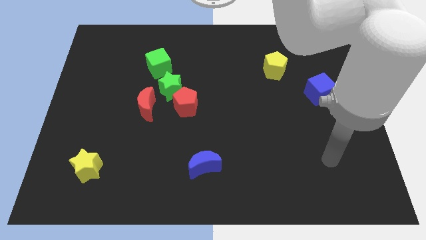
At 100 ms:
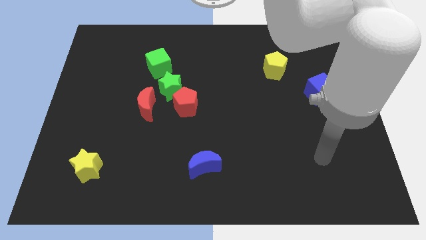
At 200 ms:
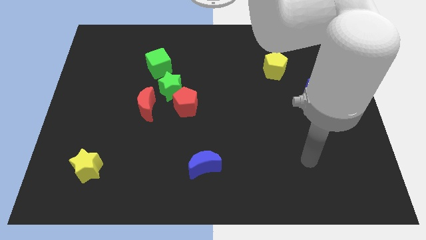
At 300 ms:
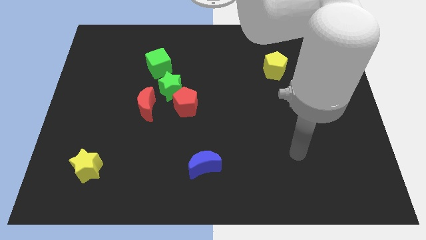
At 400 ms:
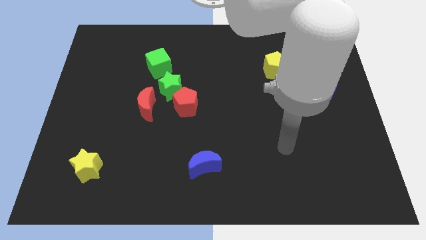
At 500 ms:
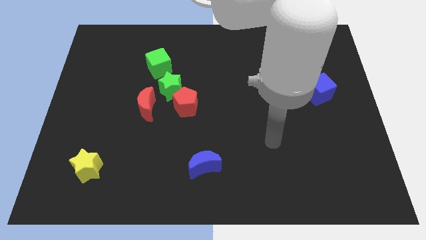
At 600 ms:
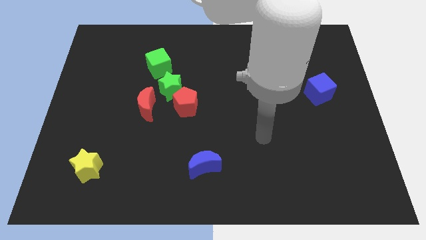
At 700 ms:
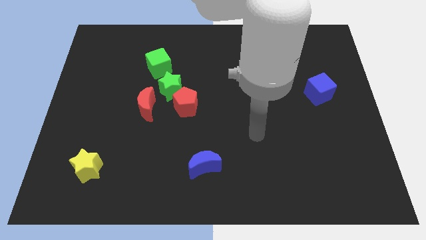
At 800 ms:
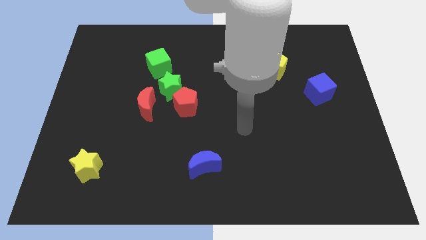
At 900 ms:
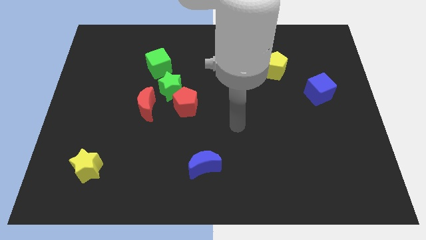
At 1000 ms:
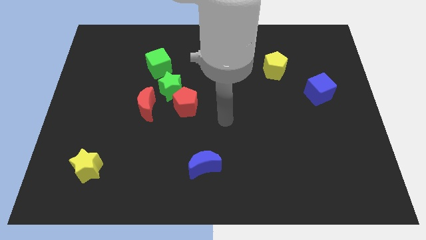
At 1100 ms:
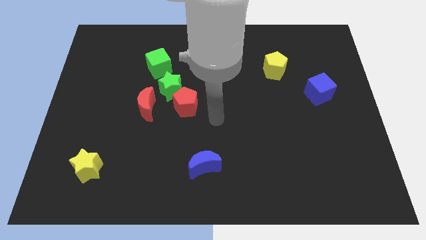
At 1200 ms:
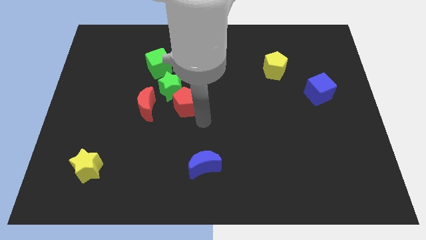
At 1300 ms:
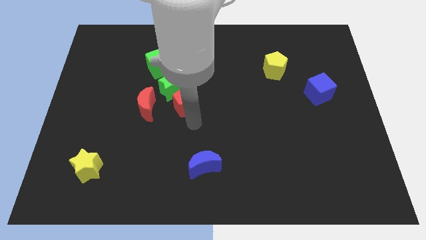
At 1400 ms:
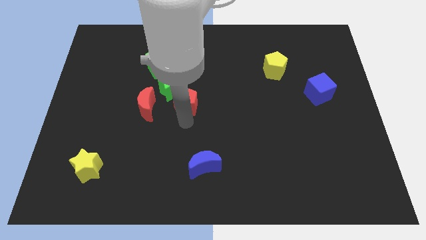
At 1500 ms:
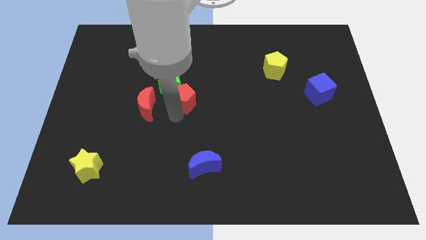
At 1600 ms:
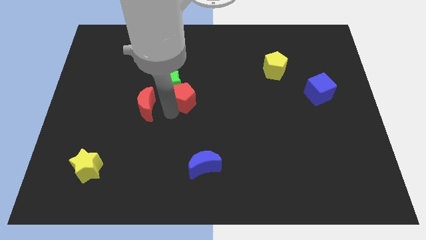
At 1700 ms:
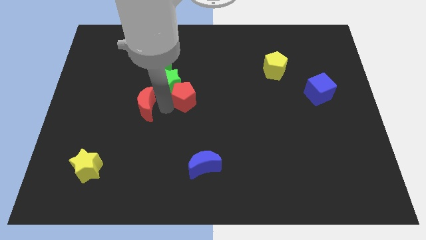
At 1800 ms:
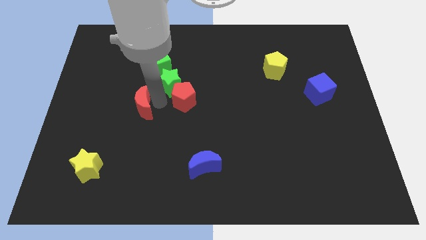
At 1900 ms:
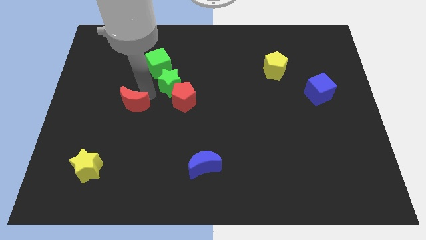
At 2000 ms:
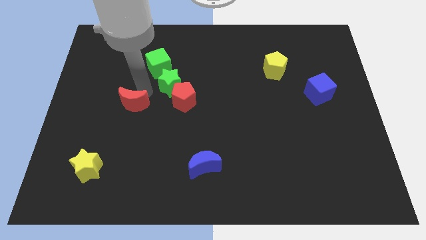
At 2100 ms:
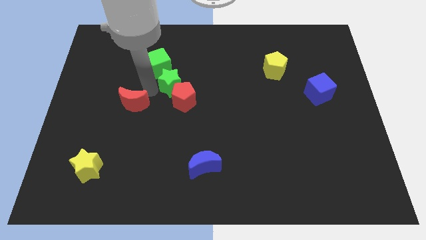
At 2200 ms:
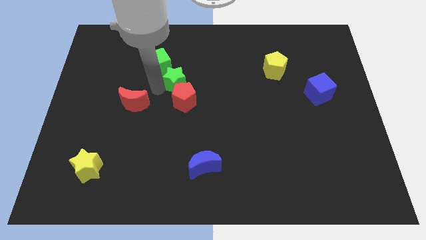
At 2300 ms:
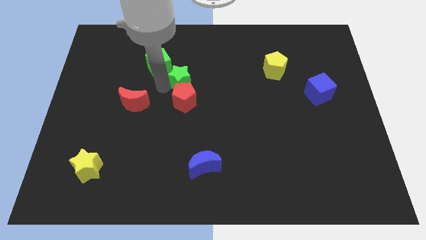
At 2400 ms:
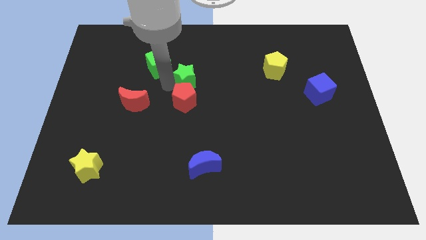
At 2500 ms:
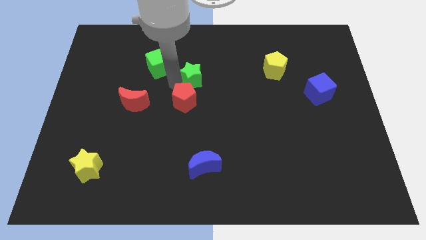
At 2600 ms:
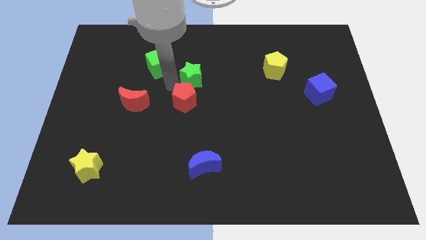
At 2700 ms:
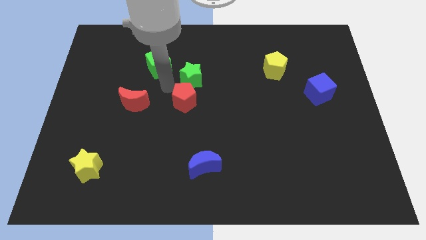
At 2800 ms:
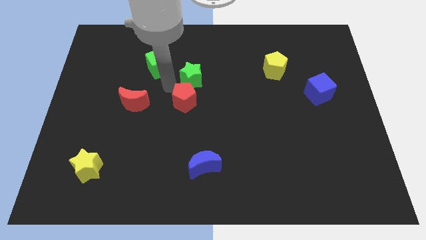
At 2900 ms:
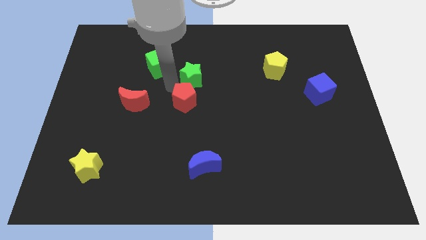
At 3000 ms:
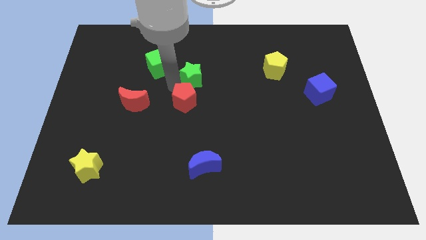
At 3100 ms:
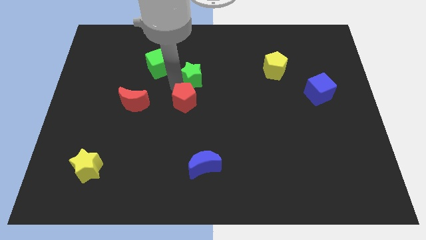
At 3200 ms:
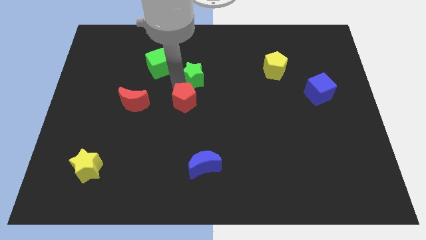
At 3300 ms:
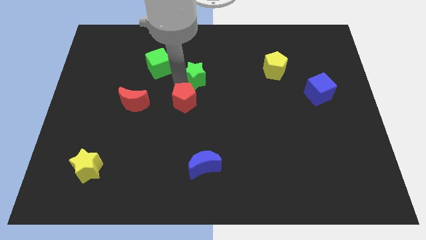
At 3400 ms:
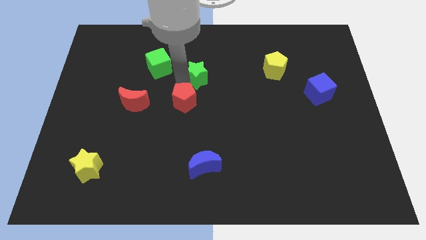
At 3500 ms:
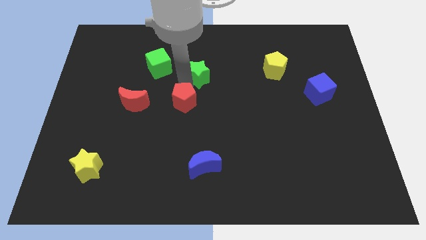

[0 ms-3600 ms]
separate the green star from the red pentagon, red moon, and green cube

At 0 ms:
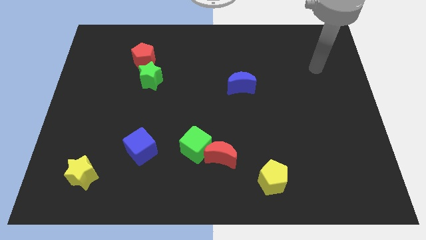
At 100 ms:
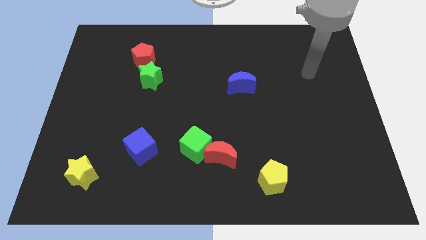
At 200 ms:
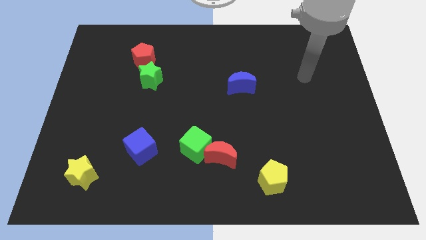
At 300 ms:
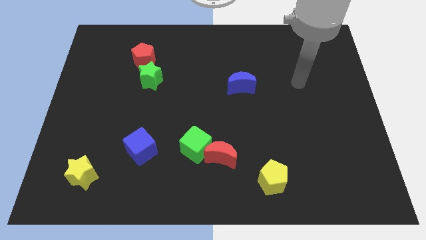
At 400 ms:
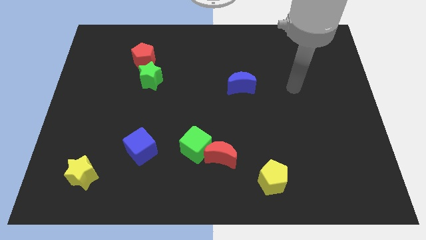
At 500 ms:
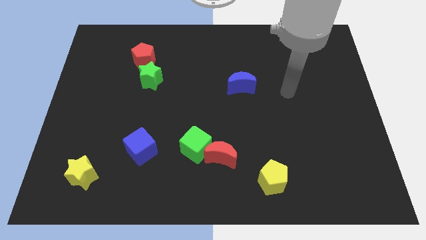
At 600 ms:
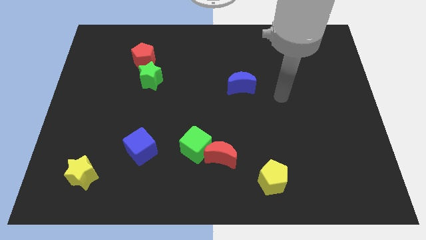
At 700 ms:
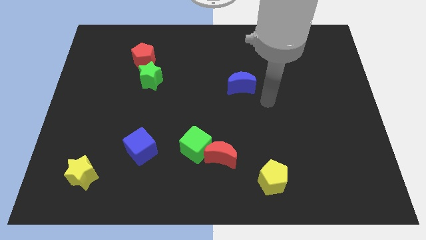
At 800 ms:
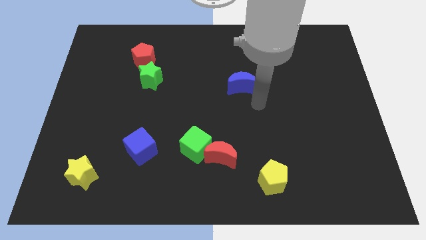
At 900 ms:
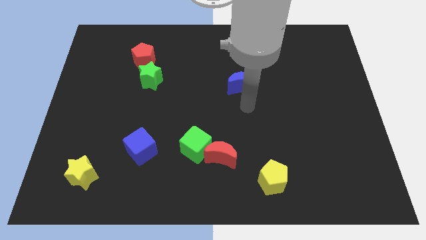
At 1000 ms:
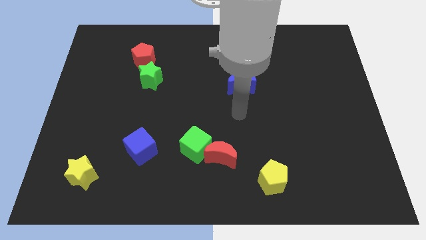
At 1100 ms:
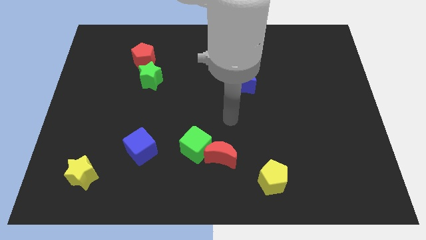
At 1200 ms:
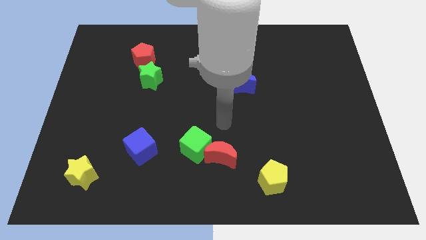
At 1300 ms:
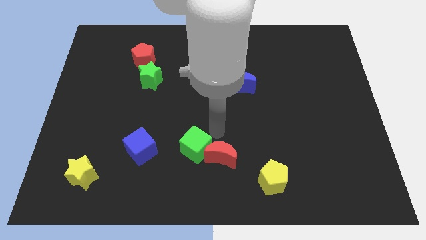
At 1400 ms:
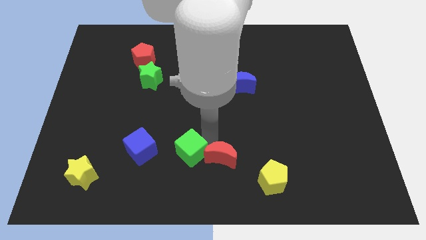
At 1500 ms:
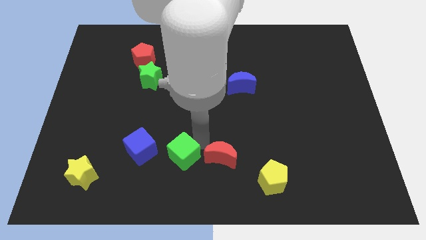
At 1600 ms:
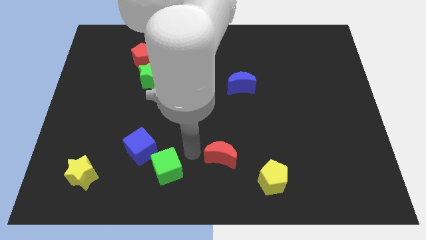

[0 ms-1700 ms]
pull the red moon apart from the green cube

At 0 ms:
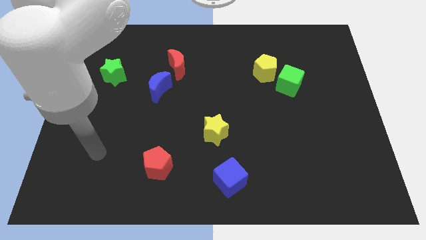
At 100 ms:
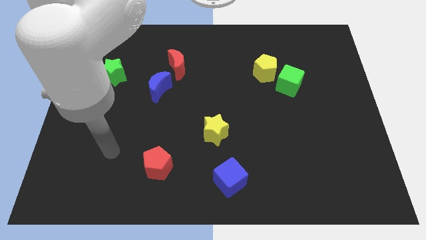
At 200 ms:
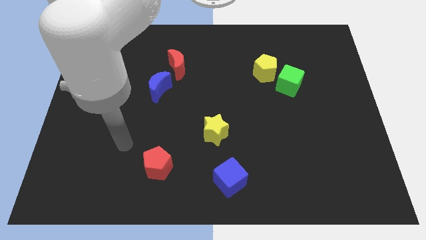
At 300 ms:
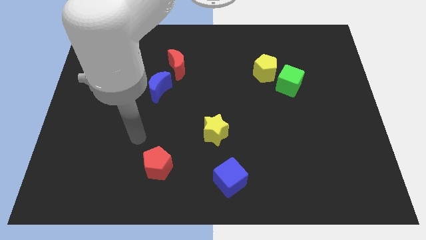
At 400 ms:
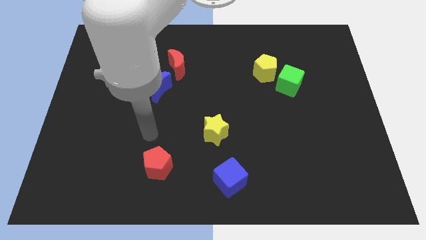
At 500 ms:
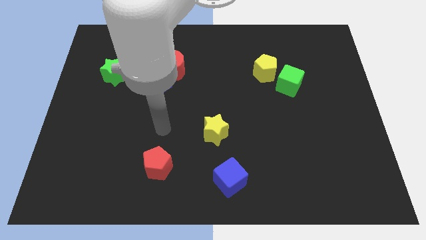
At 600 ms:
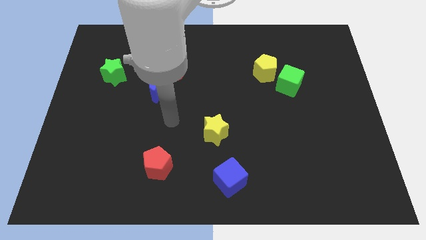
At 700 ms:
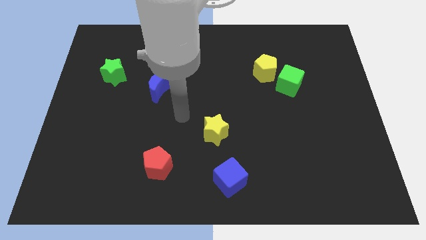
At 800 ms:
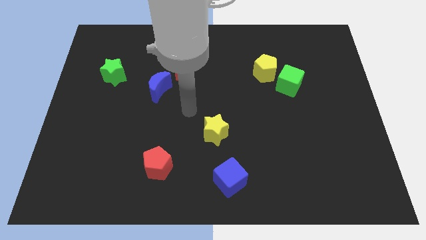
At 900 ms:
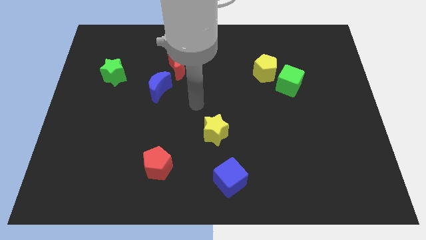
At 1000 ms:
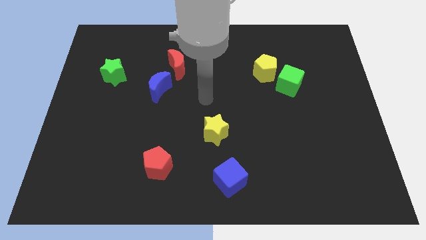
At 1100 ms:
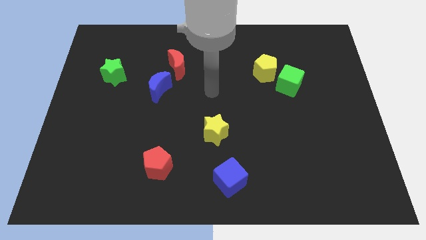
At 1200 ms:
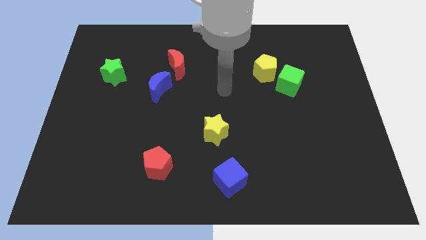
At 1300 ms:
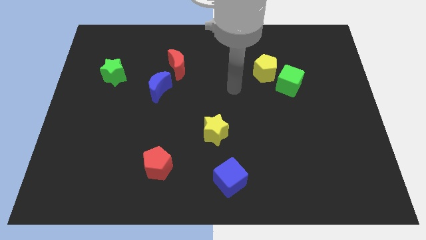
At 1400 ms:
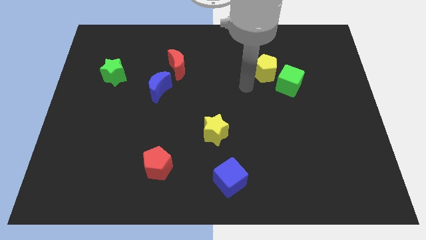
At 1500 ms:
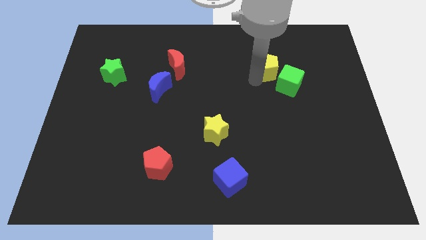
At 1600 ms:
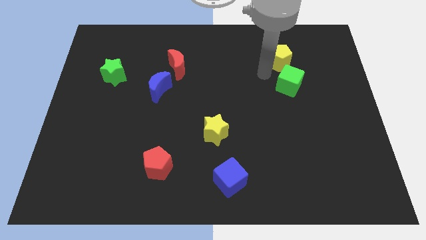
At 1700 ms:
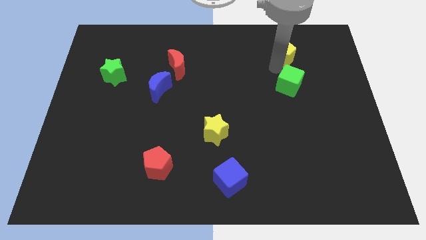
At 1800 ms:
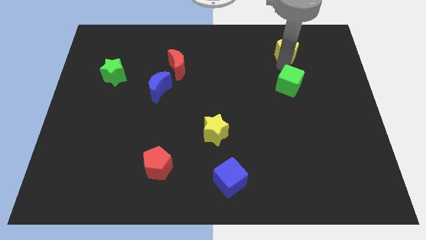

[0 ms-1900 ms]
pull the green cube apart from the yellow pentagon

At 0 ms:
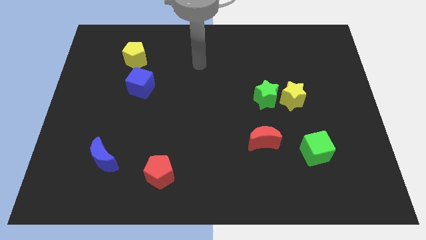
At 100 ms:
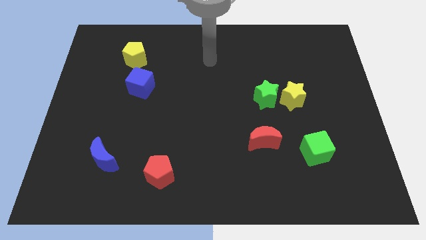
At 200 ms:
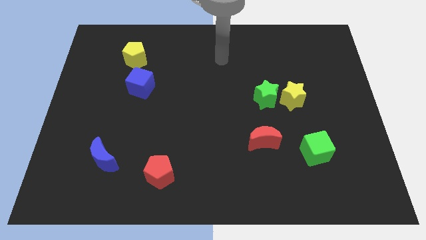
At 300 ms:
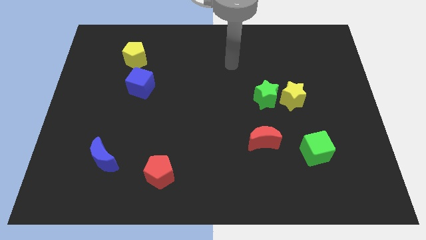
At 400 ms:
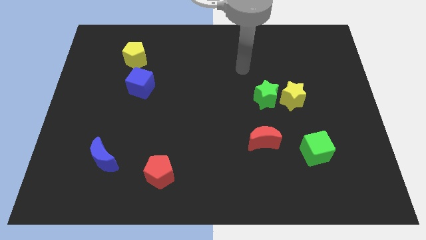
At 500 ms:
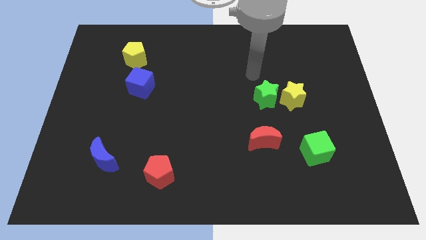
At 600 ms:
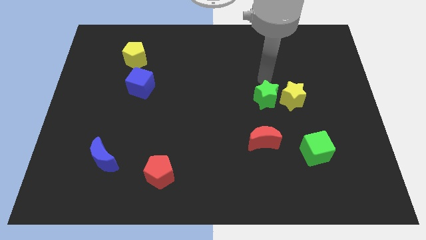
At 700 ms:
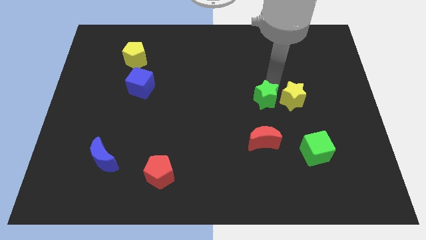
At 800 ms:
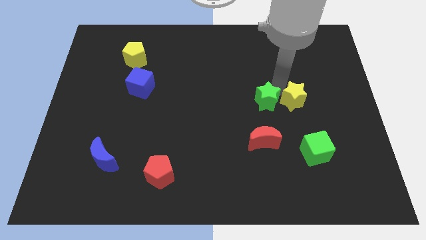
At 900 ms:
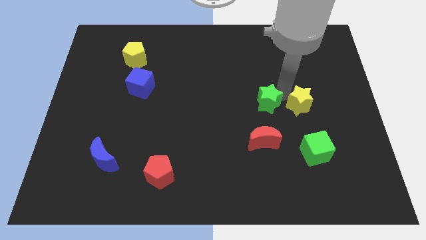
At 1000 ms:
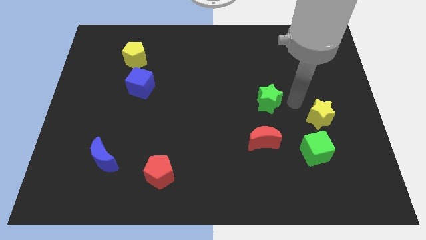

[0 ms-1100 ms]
separate the green star from the yellow star

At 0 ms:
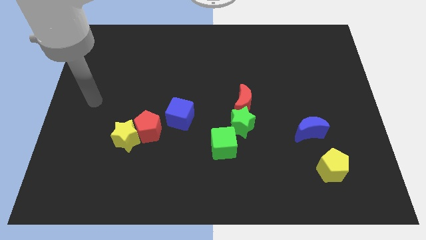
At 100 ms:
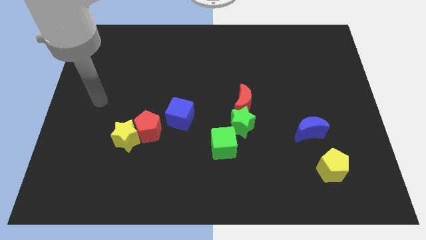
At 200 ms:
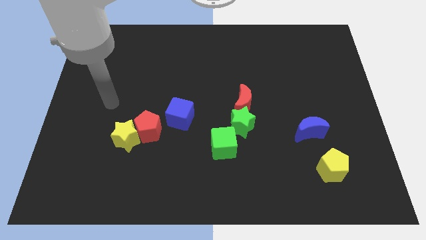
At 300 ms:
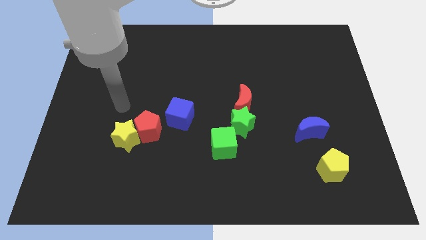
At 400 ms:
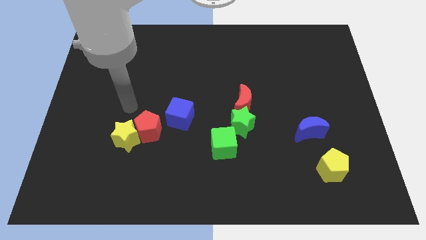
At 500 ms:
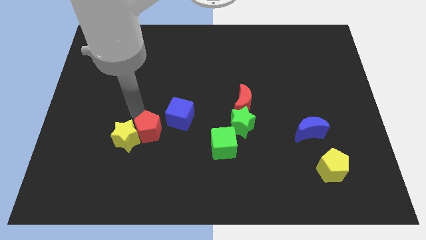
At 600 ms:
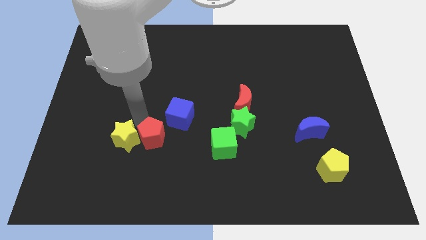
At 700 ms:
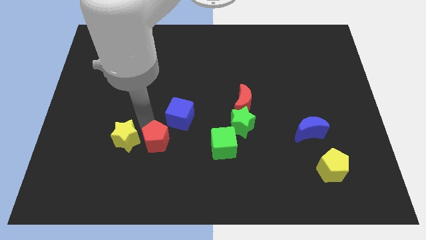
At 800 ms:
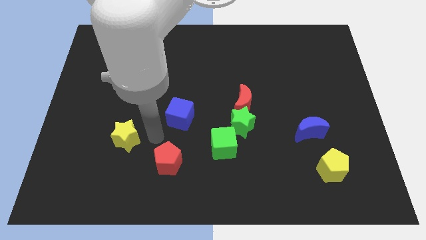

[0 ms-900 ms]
separate the yellow star from the red pentagon
